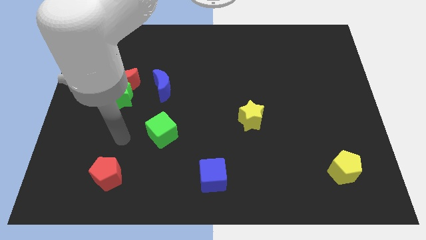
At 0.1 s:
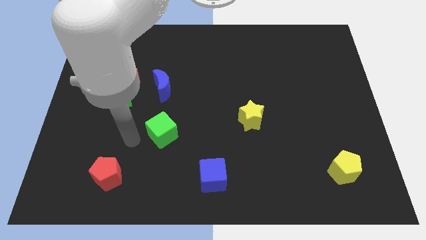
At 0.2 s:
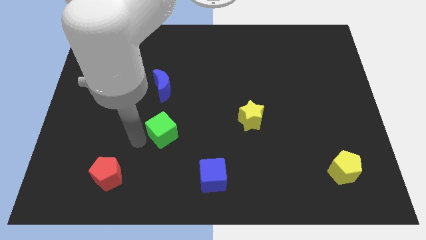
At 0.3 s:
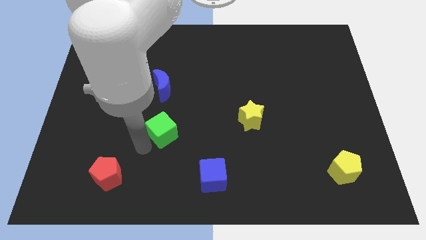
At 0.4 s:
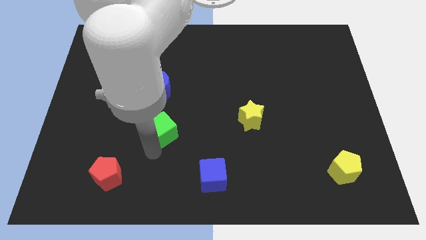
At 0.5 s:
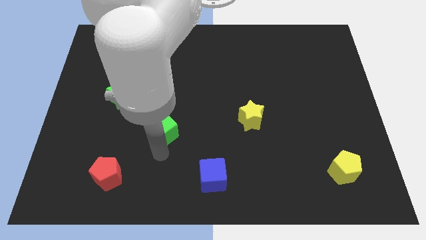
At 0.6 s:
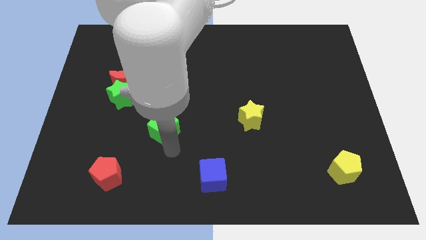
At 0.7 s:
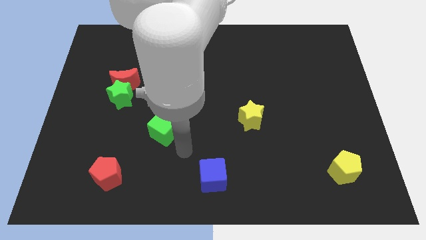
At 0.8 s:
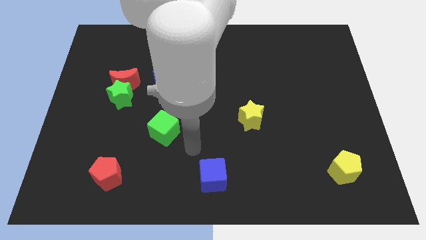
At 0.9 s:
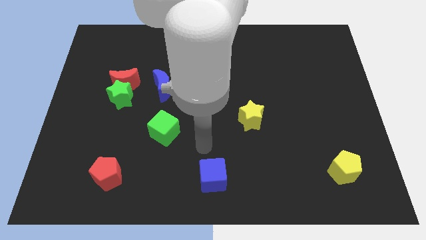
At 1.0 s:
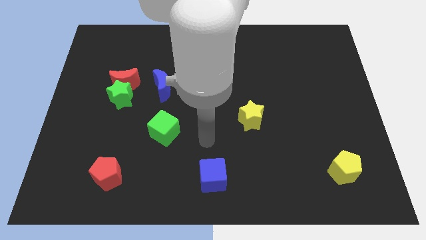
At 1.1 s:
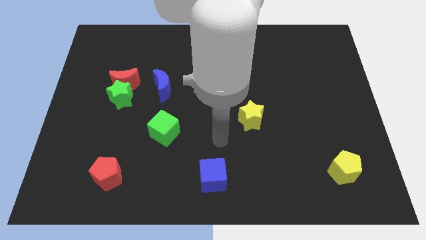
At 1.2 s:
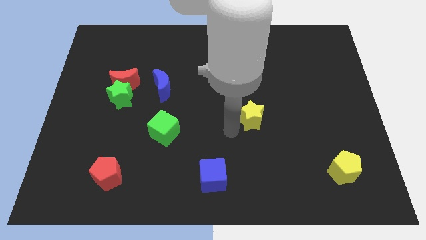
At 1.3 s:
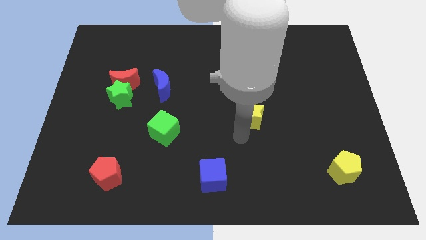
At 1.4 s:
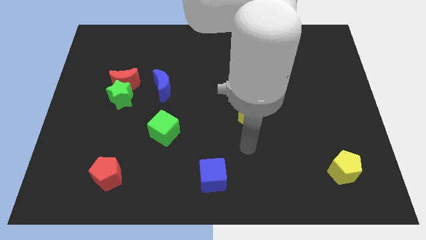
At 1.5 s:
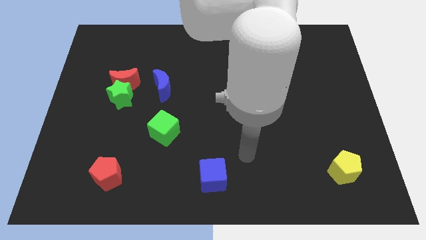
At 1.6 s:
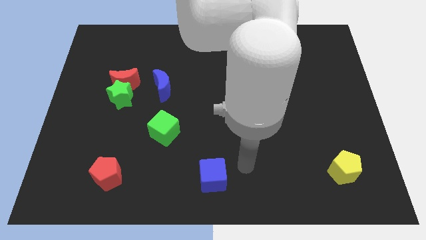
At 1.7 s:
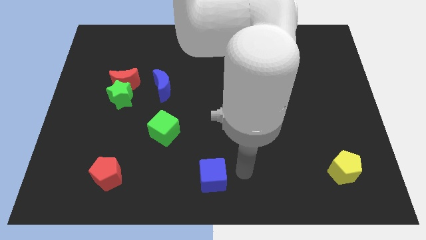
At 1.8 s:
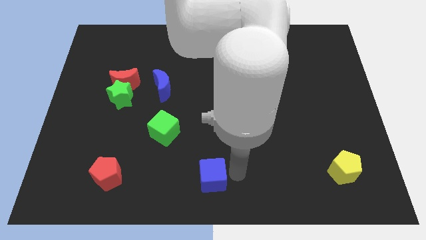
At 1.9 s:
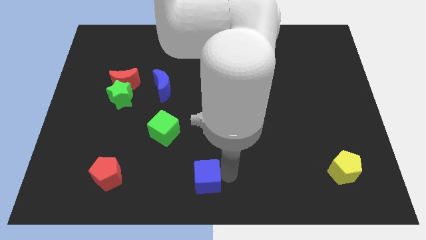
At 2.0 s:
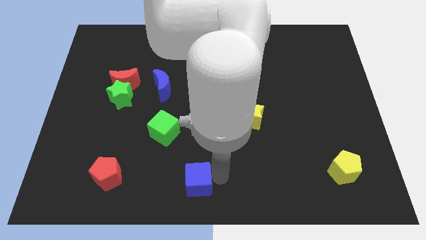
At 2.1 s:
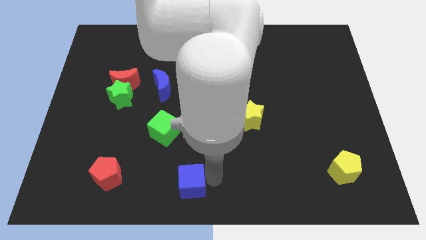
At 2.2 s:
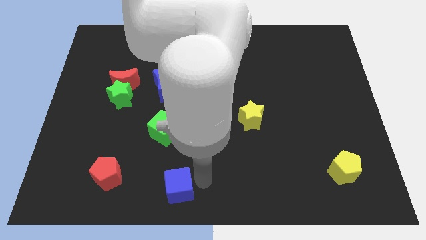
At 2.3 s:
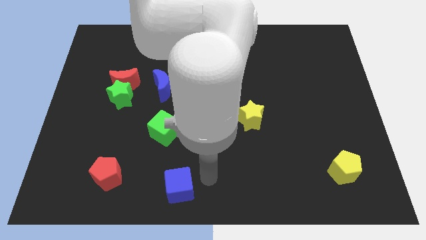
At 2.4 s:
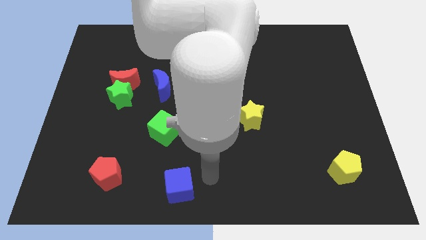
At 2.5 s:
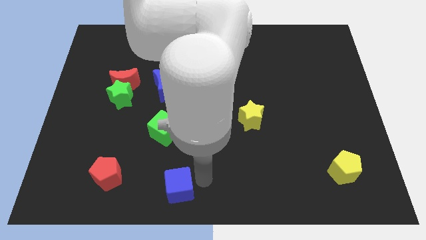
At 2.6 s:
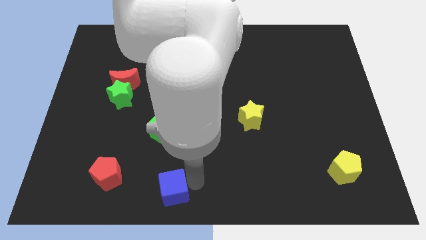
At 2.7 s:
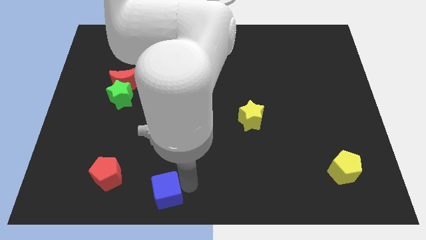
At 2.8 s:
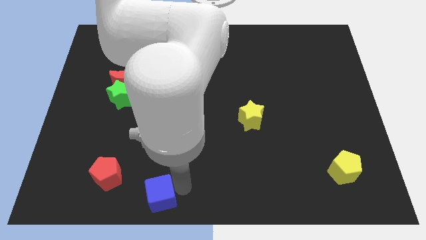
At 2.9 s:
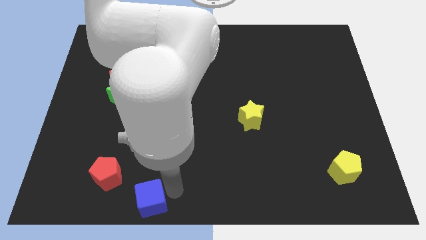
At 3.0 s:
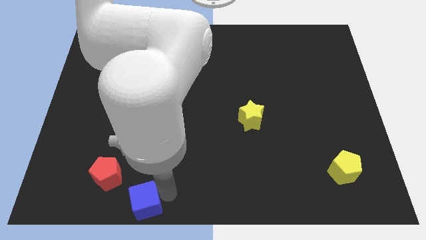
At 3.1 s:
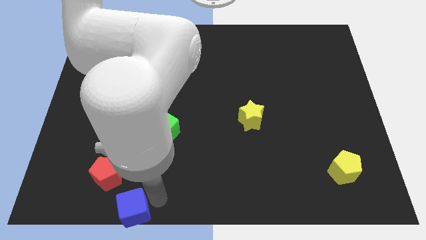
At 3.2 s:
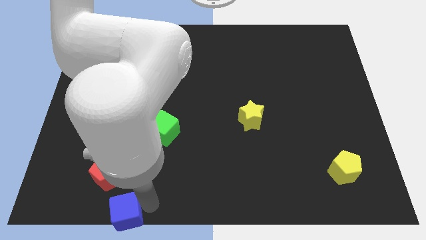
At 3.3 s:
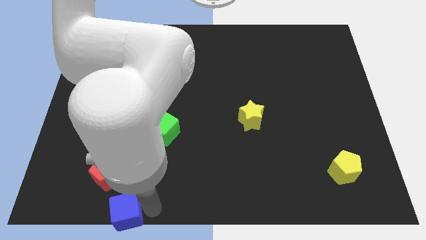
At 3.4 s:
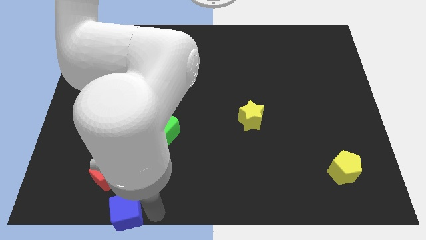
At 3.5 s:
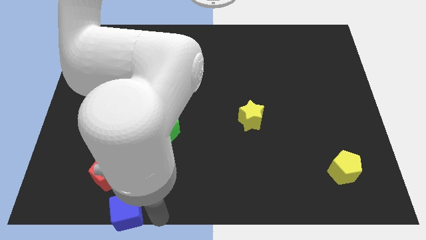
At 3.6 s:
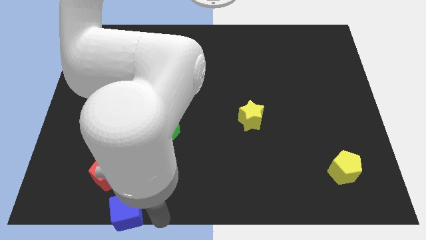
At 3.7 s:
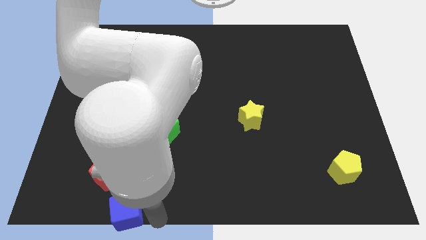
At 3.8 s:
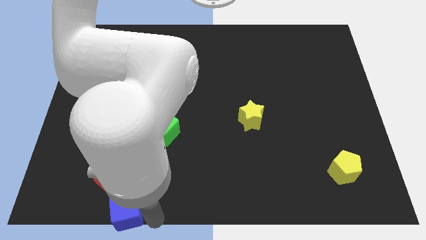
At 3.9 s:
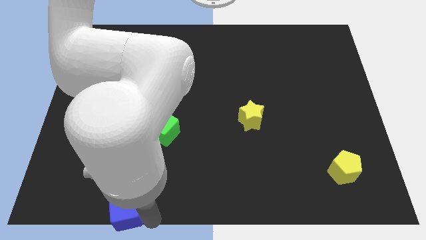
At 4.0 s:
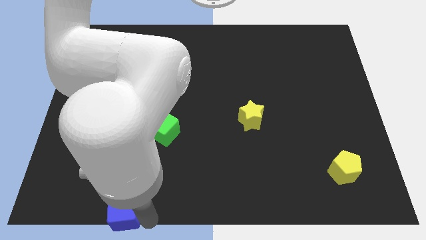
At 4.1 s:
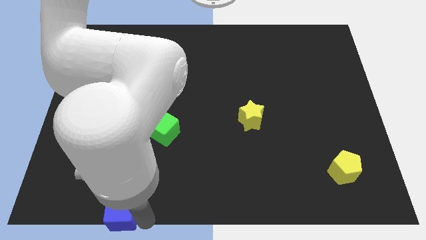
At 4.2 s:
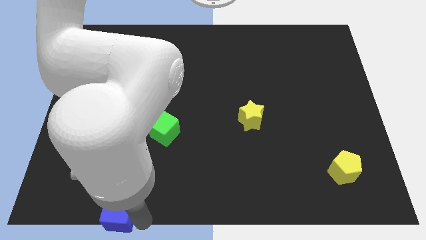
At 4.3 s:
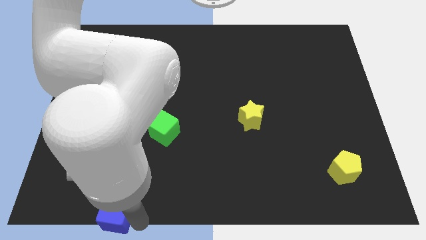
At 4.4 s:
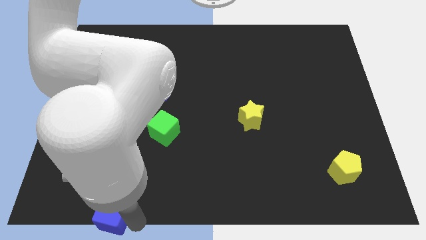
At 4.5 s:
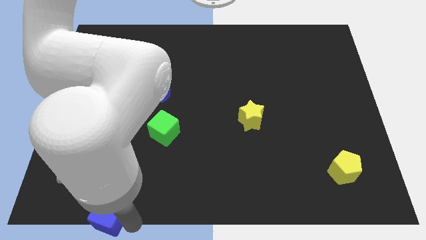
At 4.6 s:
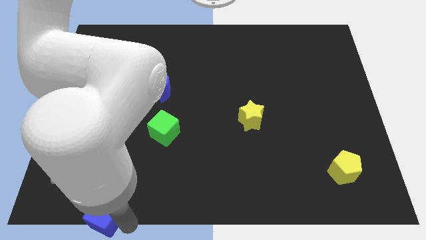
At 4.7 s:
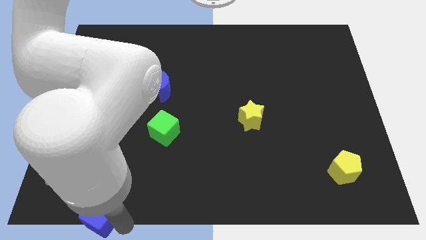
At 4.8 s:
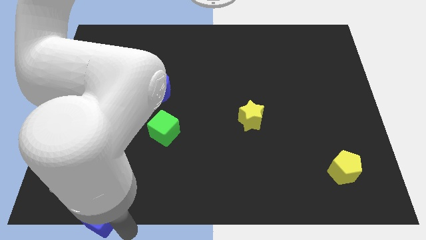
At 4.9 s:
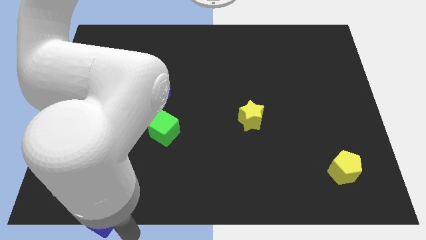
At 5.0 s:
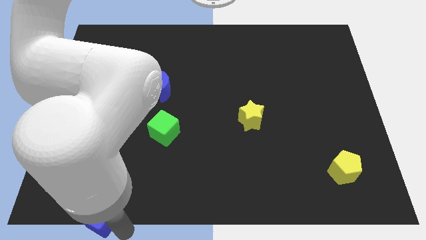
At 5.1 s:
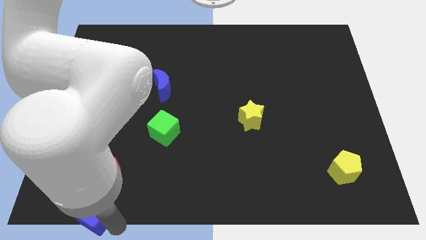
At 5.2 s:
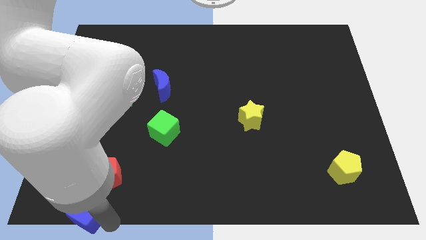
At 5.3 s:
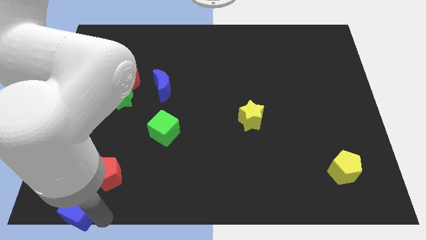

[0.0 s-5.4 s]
slide the blue cube to the bottom left corner

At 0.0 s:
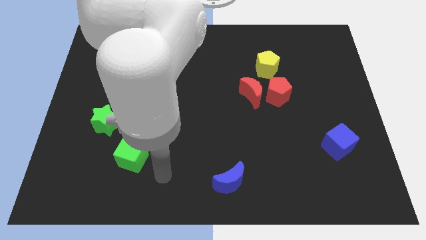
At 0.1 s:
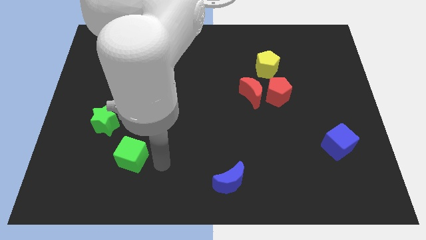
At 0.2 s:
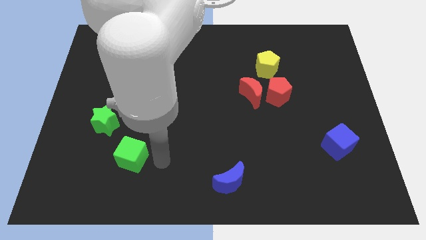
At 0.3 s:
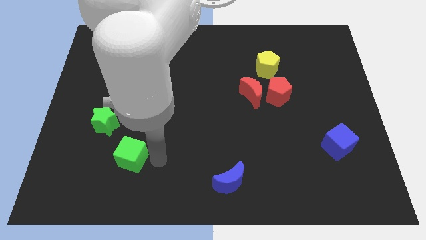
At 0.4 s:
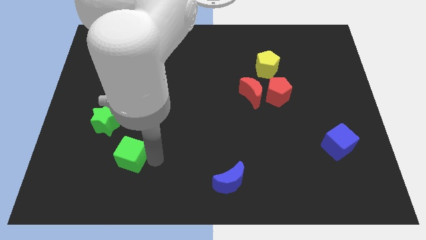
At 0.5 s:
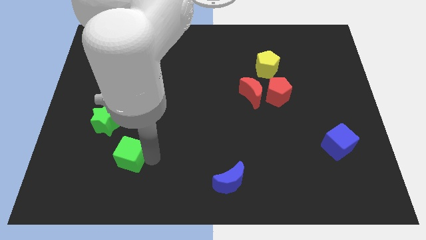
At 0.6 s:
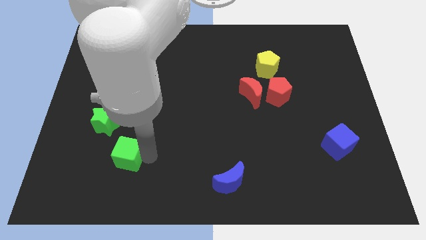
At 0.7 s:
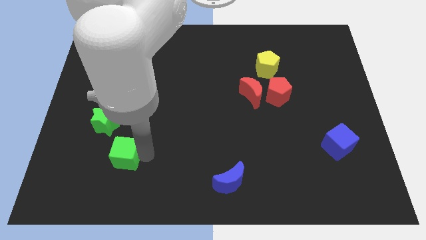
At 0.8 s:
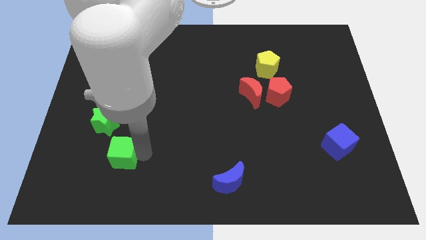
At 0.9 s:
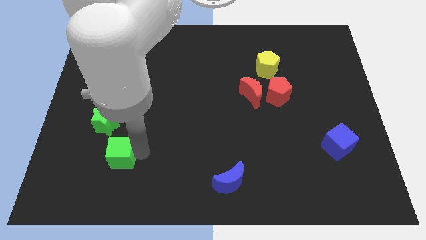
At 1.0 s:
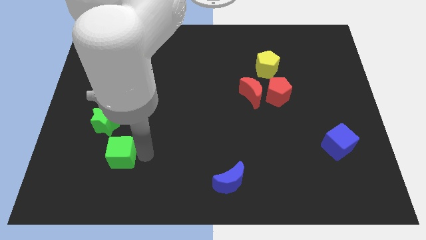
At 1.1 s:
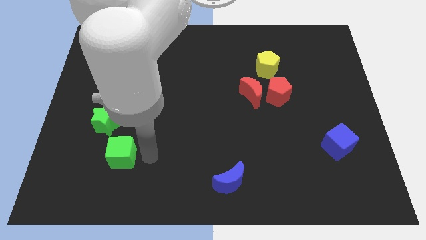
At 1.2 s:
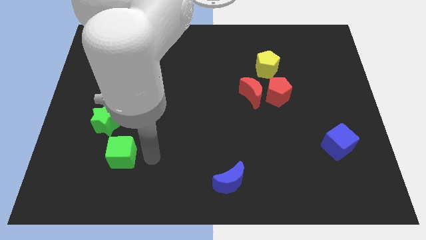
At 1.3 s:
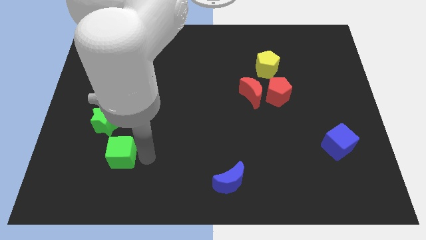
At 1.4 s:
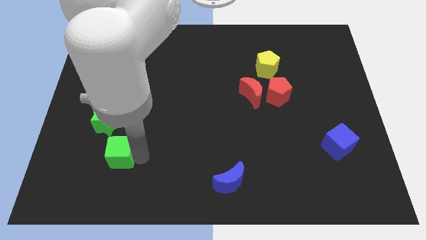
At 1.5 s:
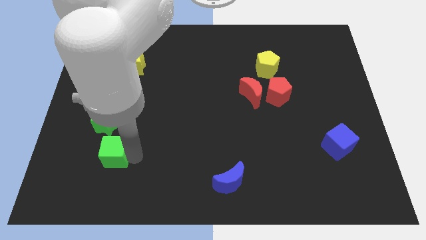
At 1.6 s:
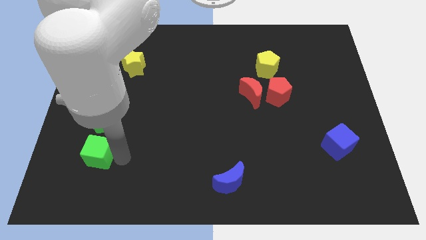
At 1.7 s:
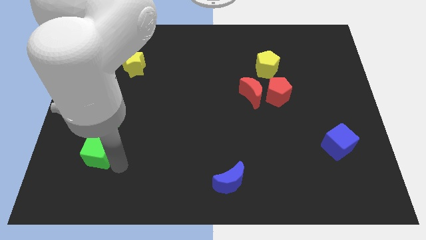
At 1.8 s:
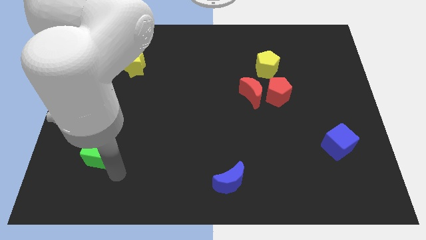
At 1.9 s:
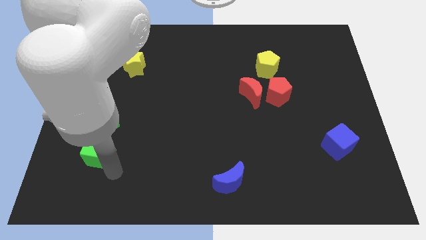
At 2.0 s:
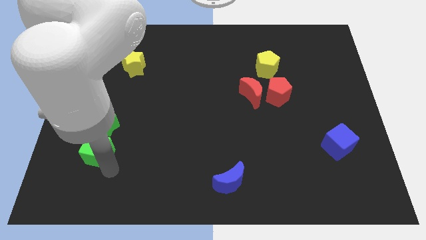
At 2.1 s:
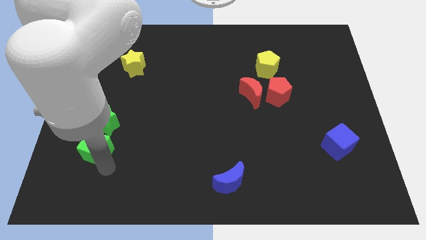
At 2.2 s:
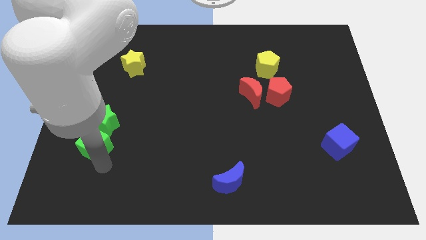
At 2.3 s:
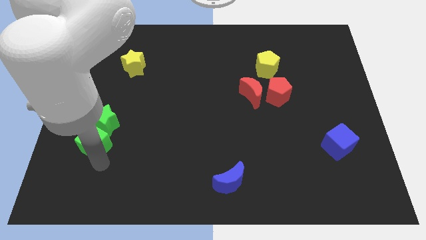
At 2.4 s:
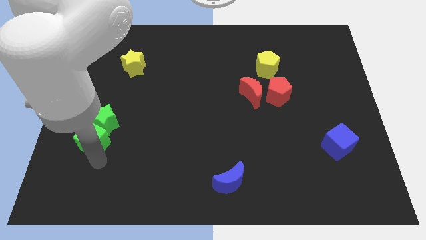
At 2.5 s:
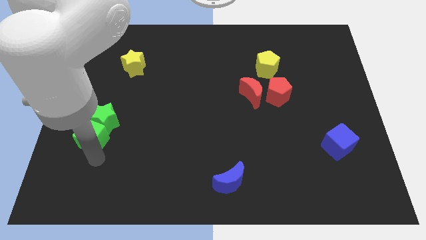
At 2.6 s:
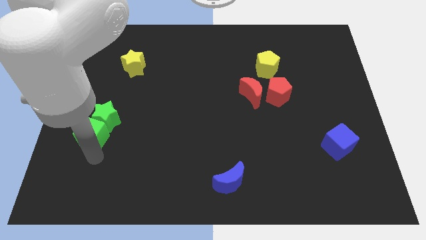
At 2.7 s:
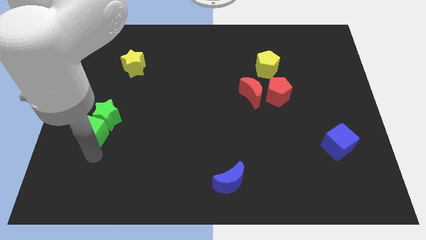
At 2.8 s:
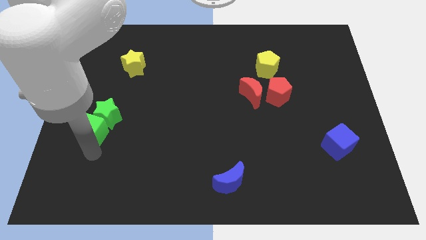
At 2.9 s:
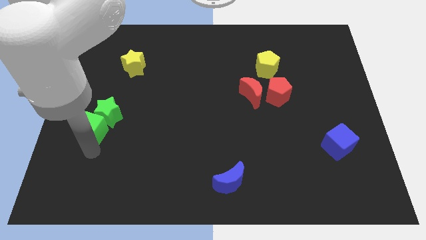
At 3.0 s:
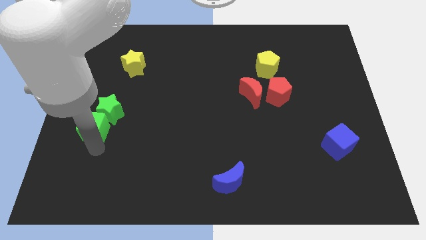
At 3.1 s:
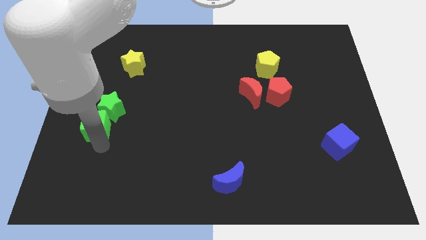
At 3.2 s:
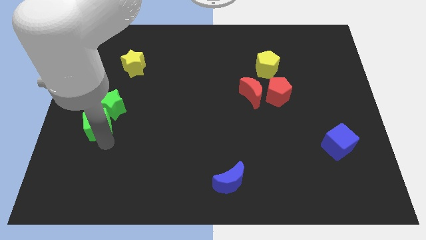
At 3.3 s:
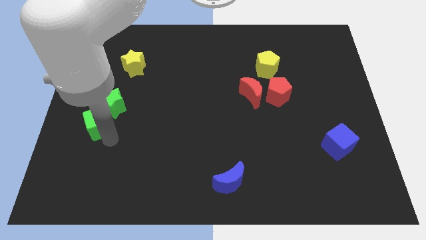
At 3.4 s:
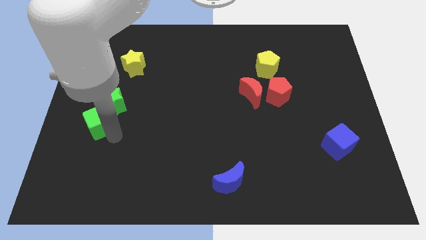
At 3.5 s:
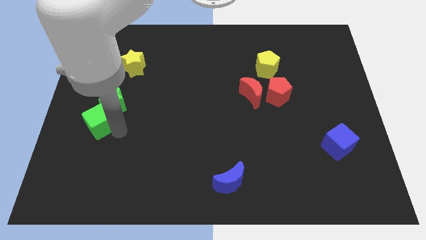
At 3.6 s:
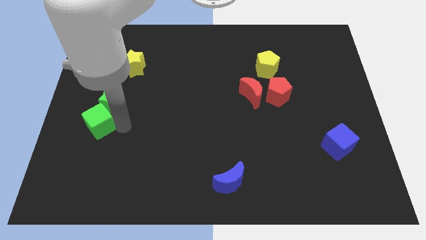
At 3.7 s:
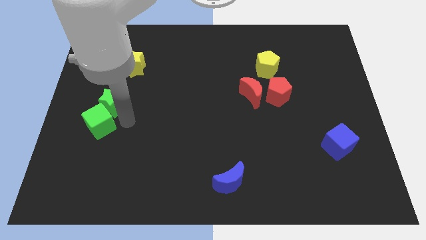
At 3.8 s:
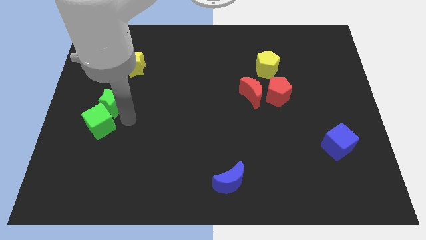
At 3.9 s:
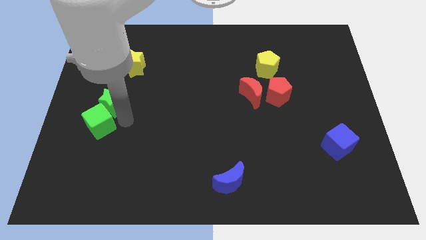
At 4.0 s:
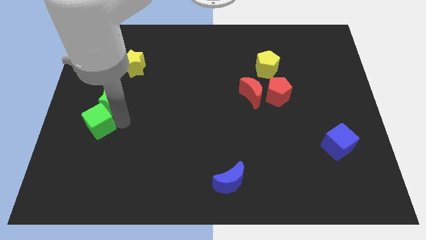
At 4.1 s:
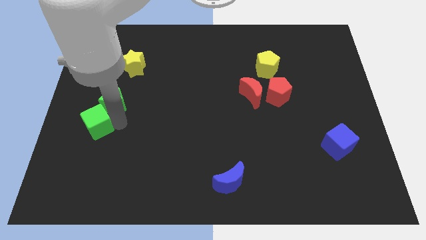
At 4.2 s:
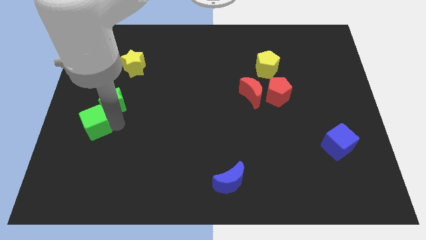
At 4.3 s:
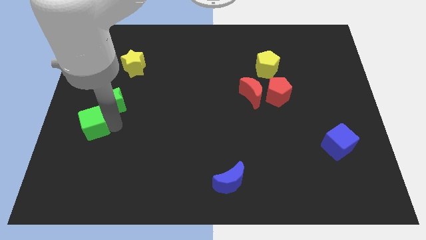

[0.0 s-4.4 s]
move the green cube to the left side
